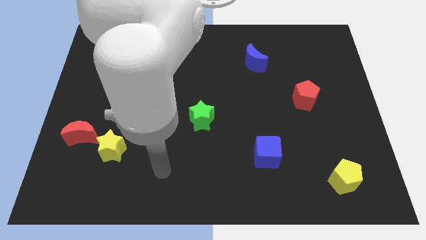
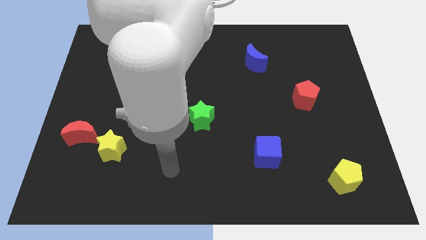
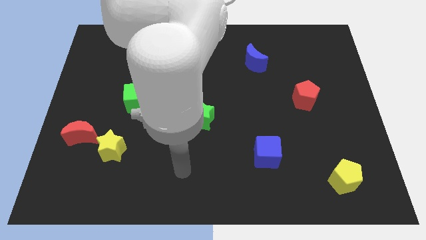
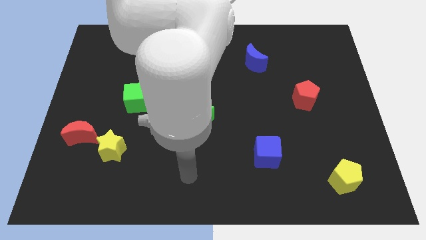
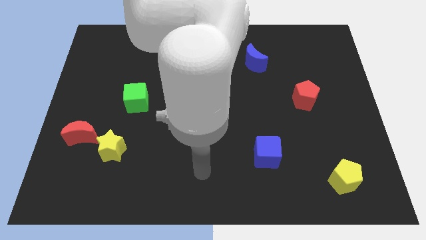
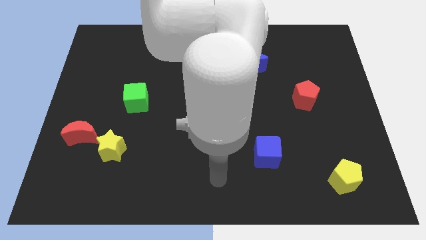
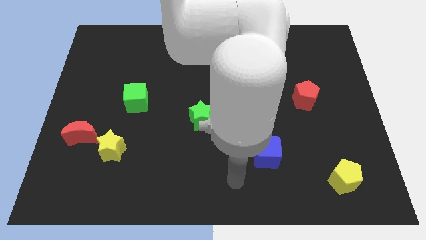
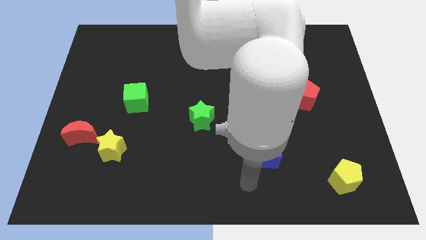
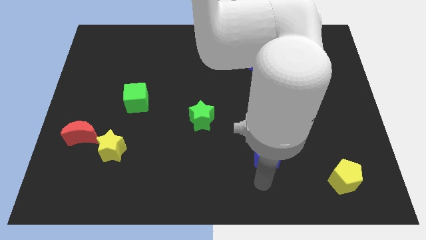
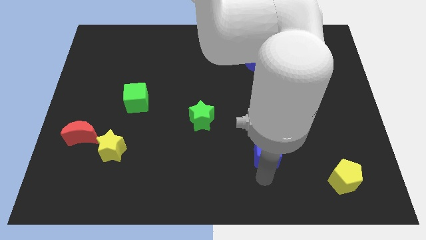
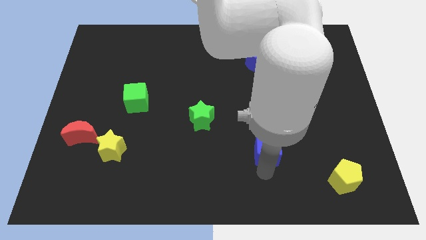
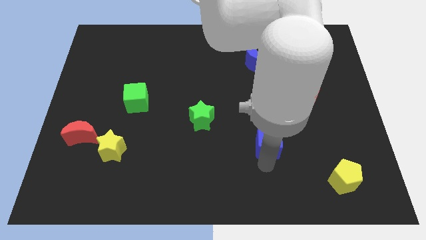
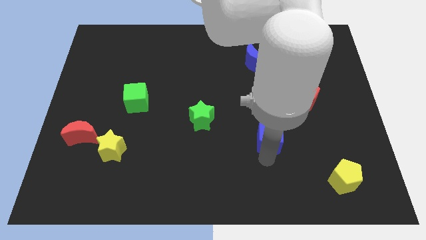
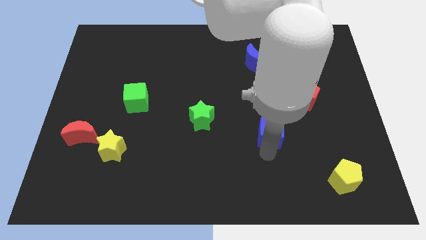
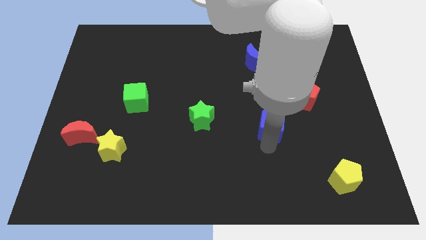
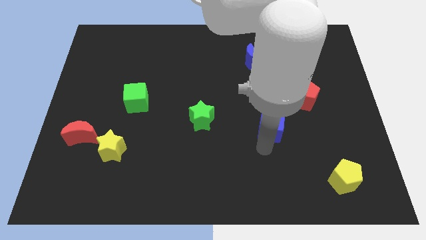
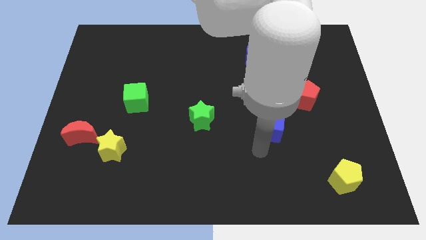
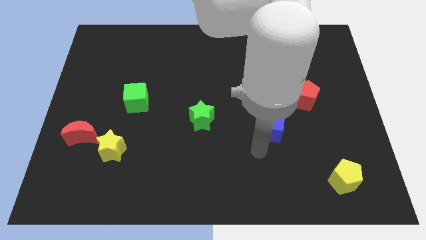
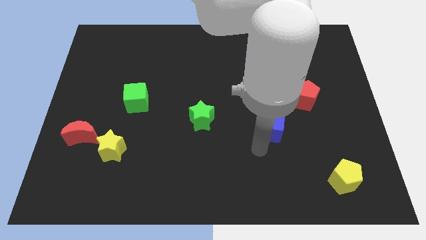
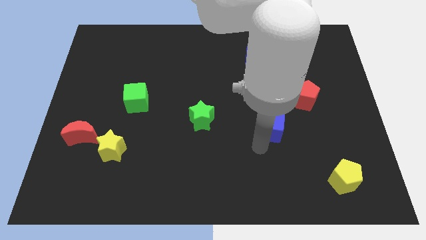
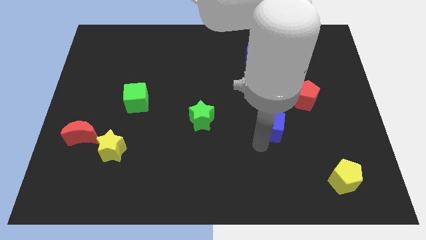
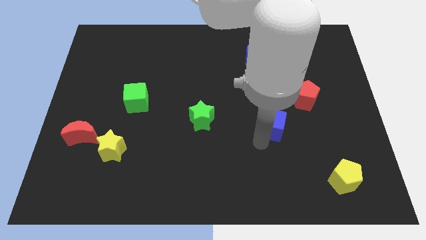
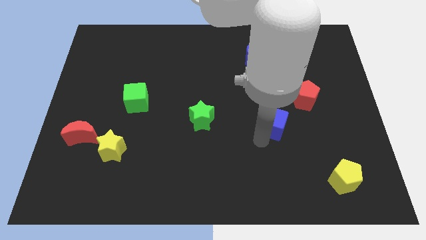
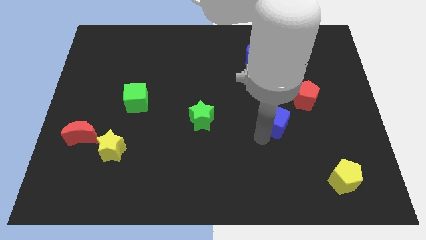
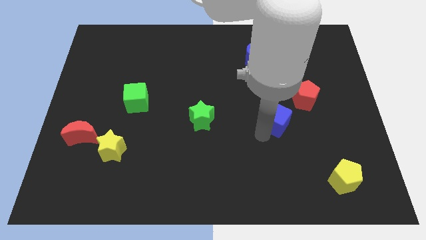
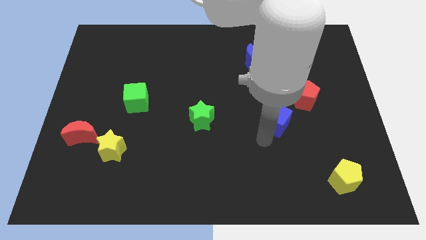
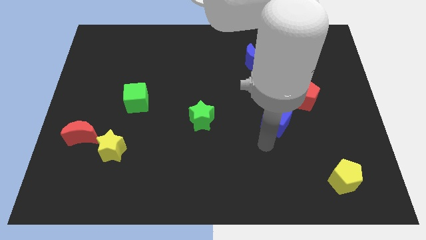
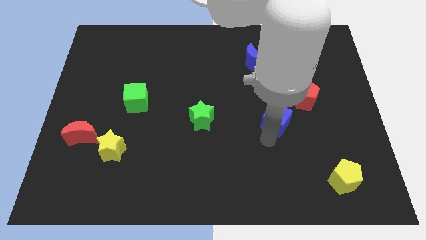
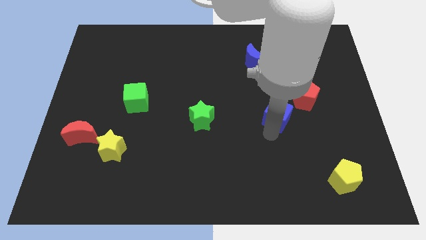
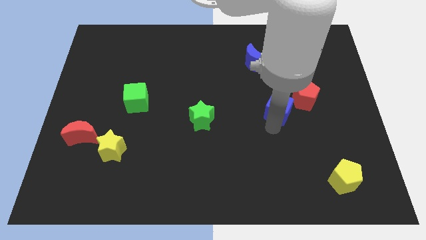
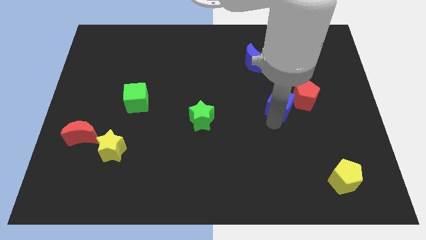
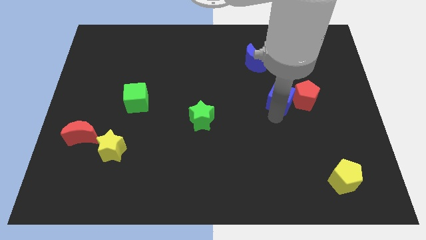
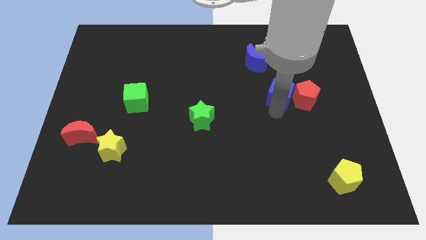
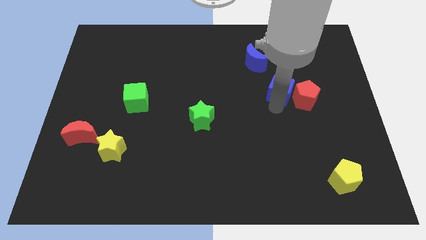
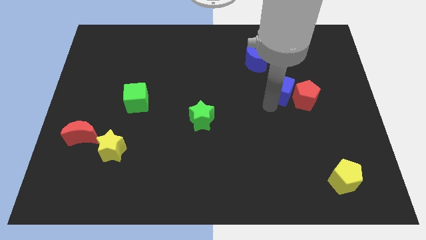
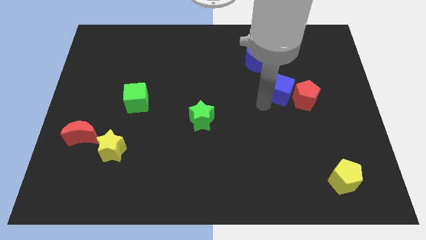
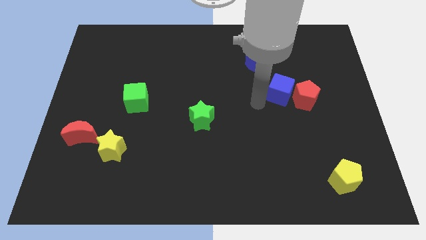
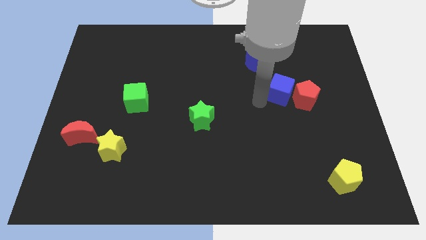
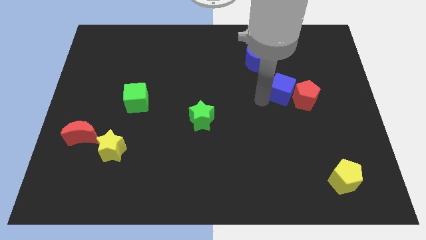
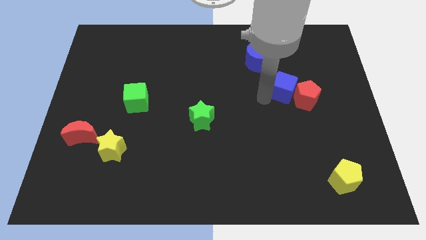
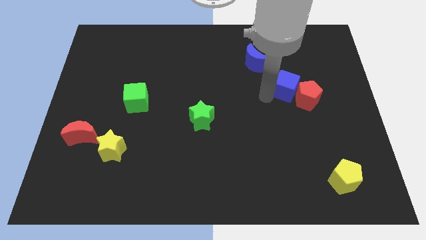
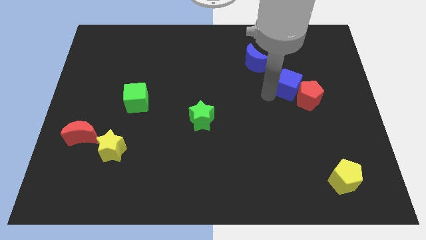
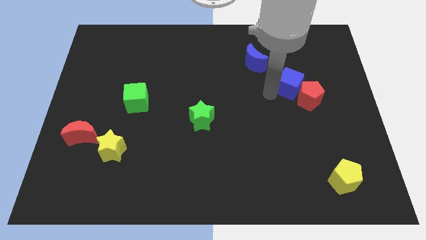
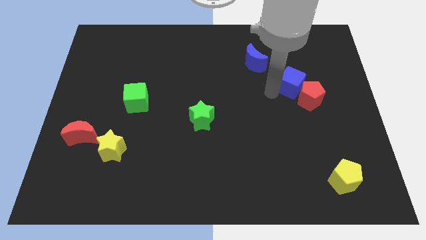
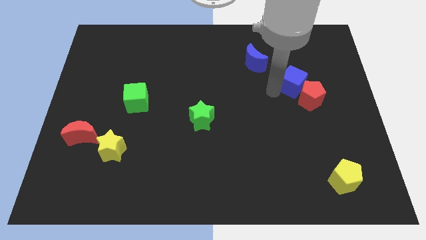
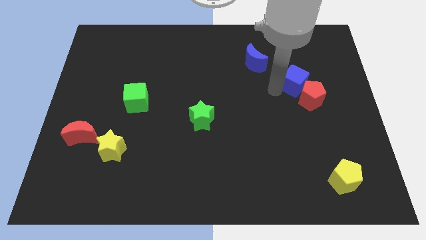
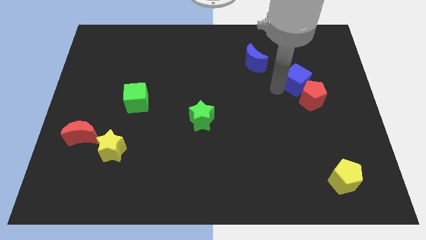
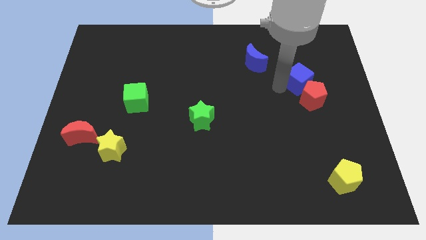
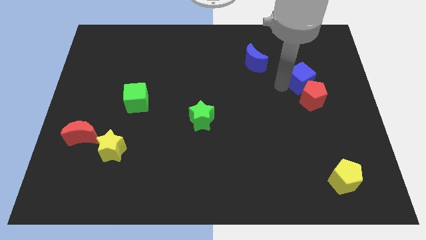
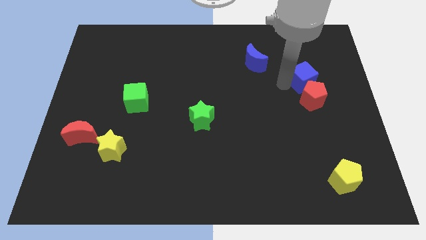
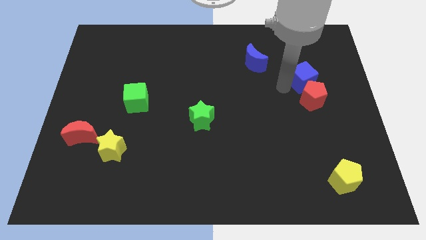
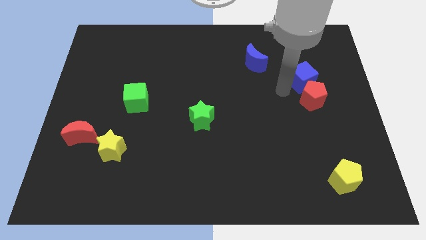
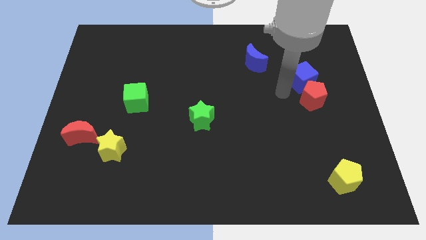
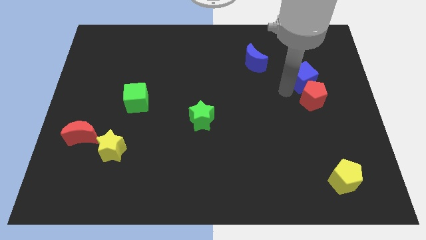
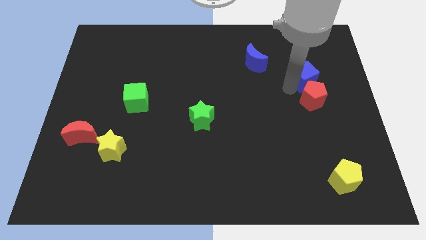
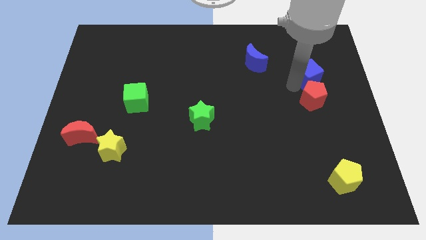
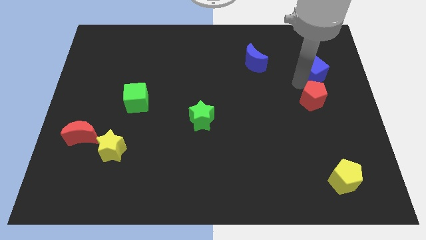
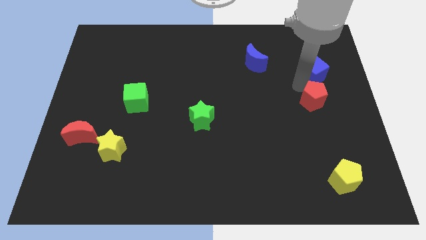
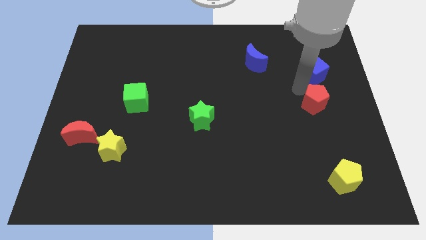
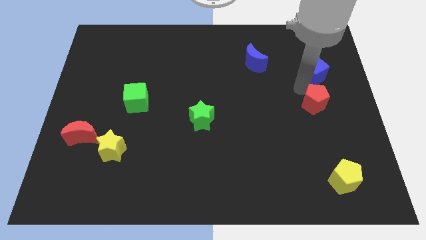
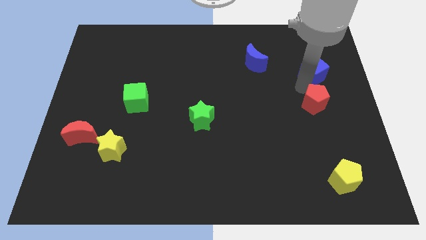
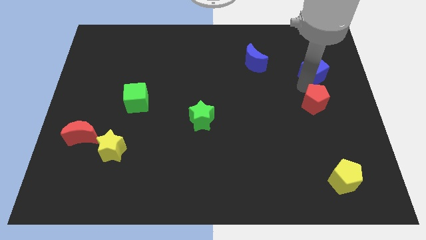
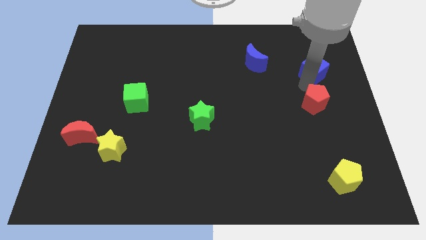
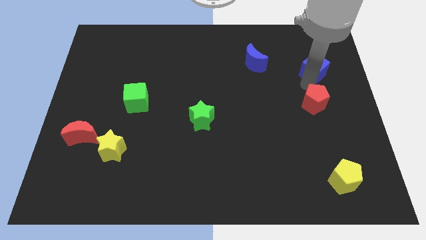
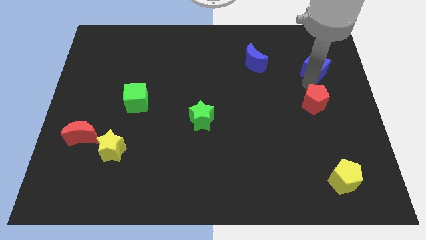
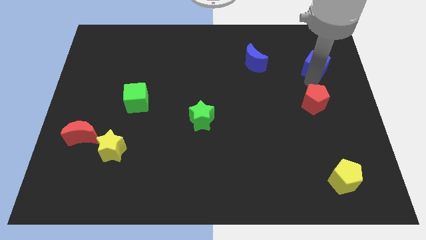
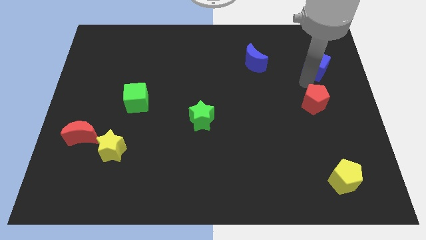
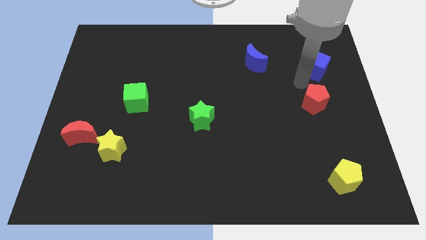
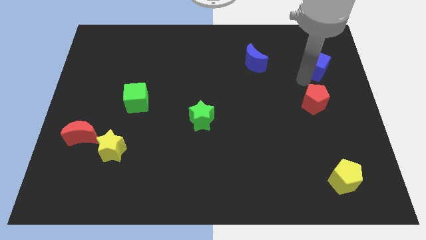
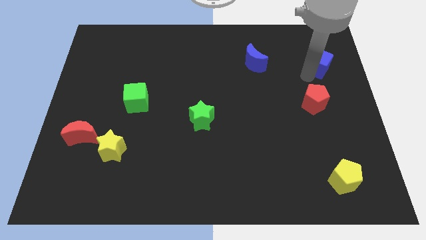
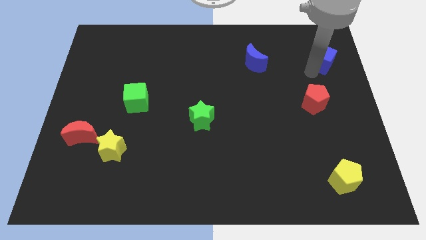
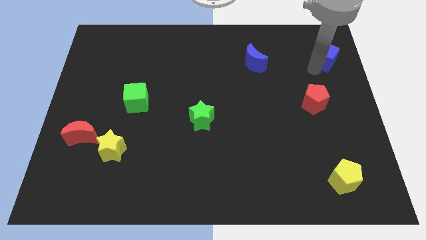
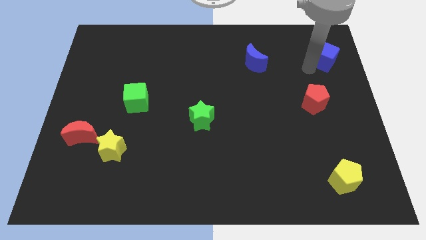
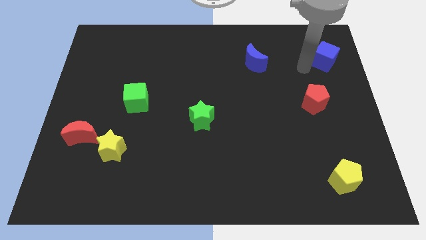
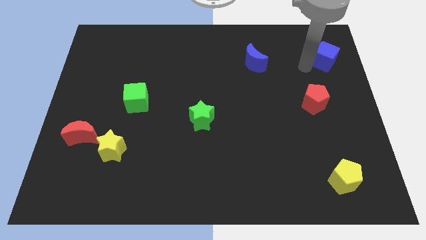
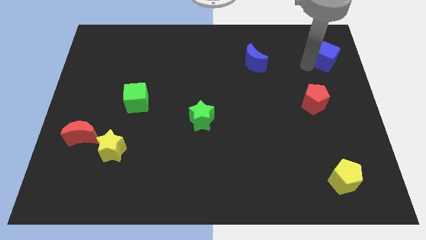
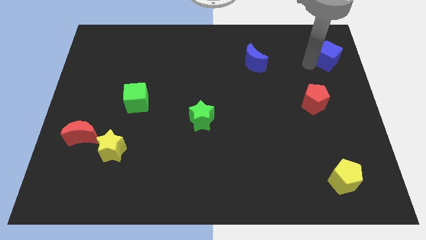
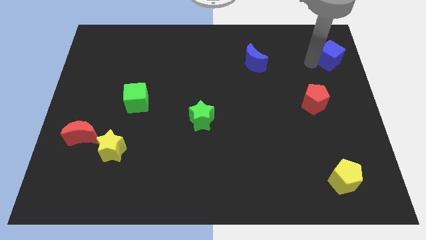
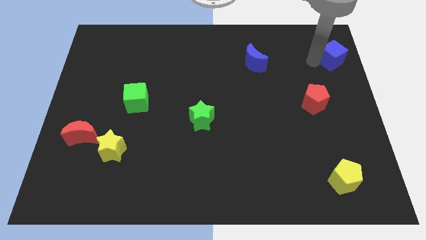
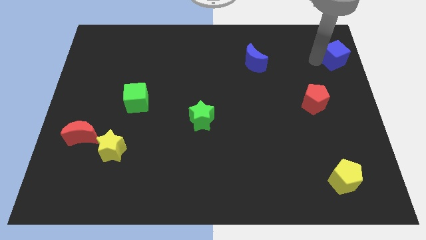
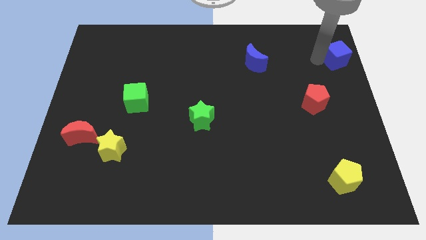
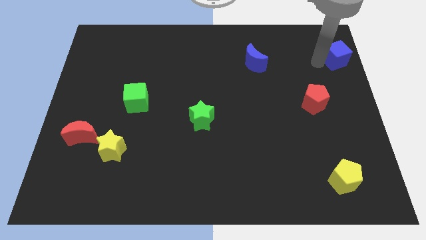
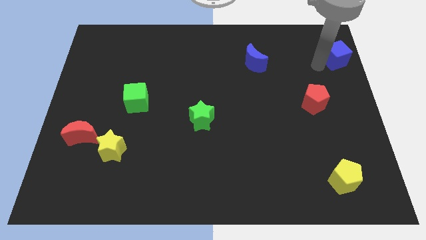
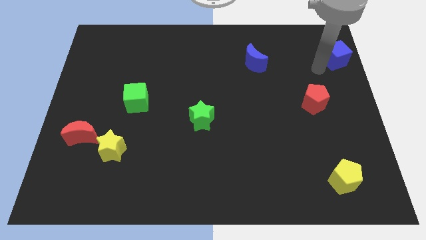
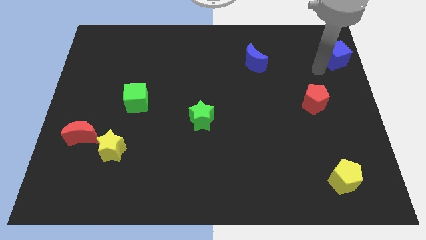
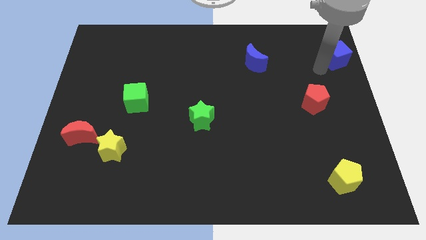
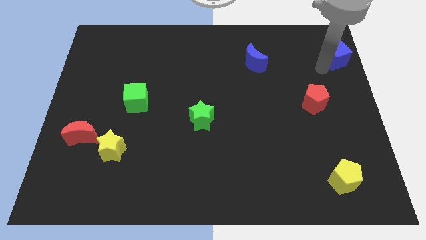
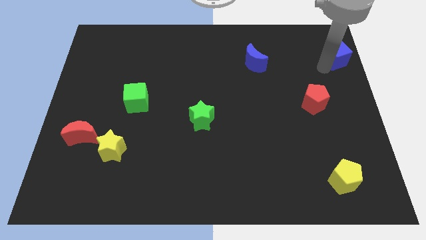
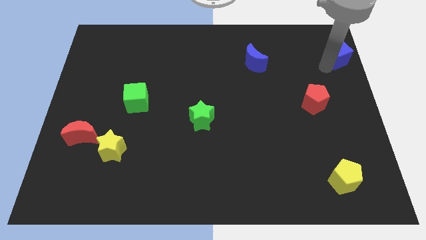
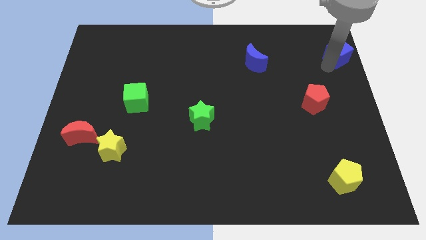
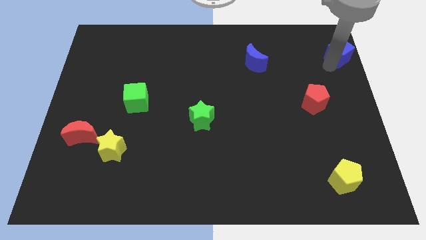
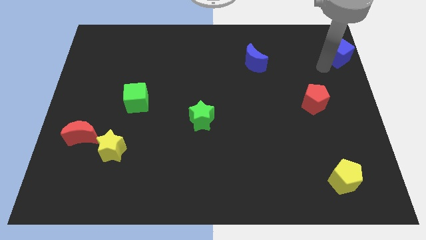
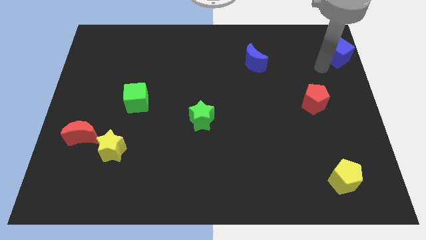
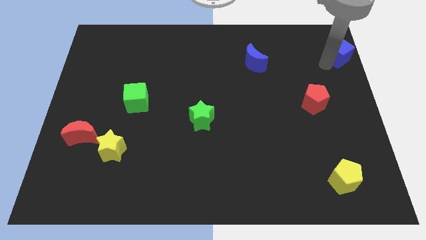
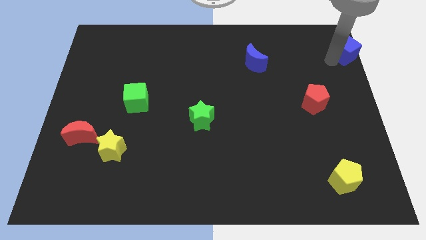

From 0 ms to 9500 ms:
put the blue cube to the top right corner
